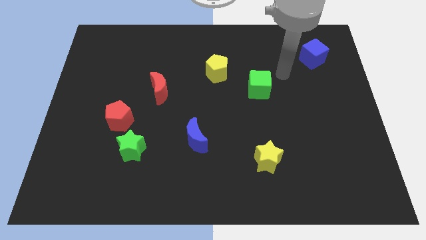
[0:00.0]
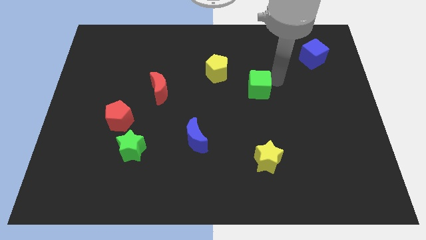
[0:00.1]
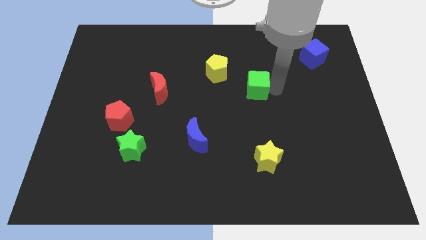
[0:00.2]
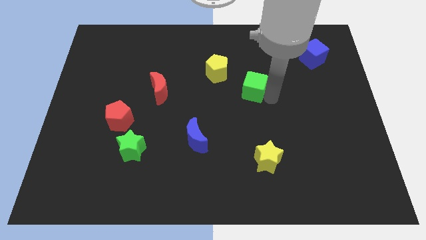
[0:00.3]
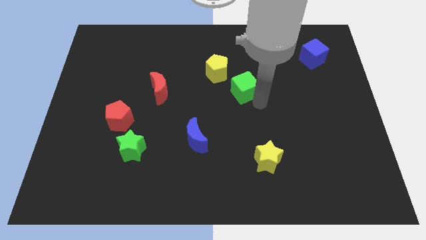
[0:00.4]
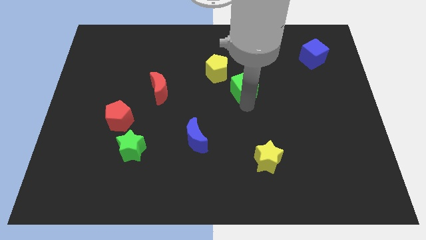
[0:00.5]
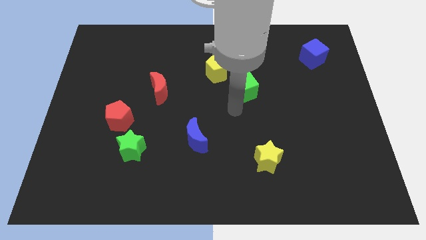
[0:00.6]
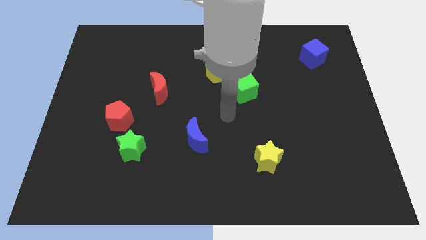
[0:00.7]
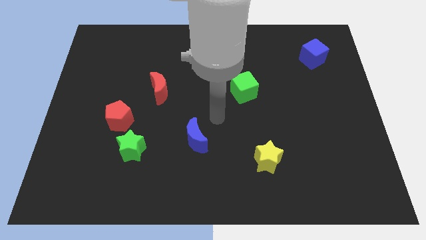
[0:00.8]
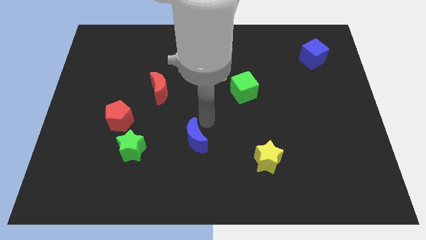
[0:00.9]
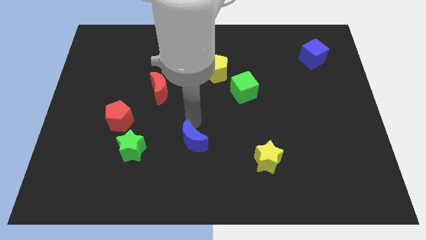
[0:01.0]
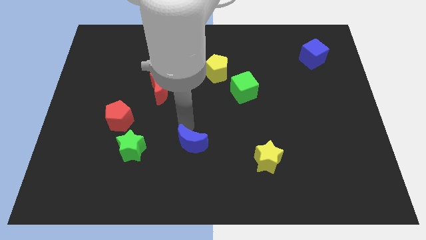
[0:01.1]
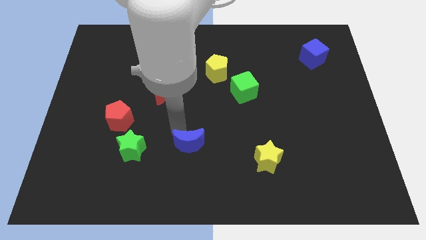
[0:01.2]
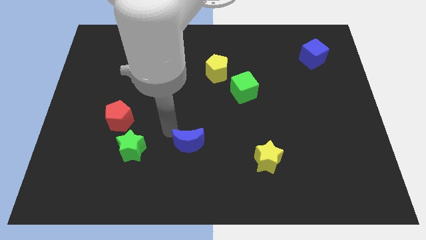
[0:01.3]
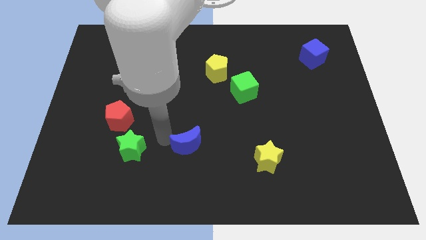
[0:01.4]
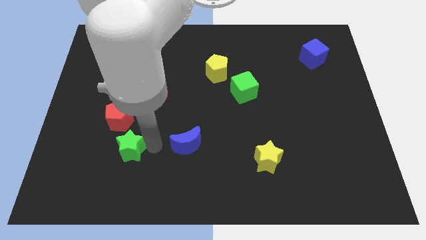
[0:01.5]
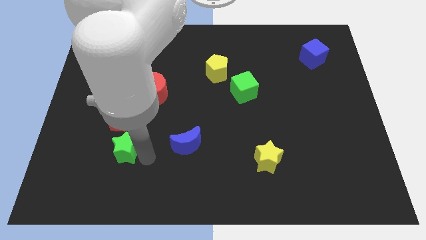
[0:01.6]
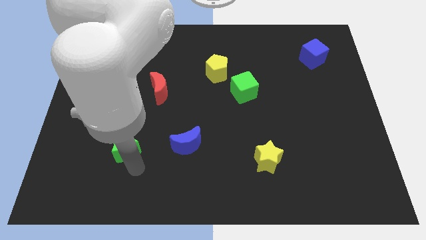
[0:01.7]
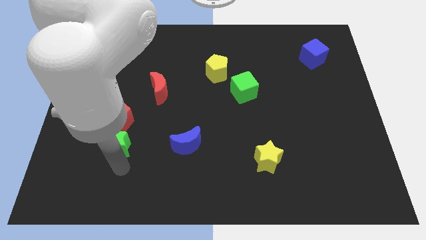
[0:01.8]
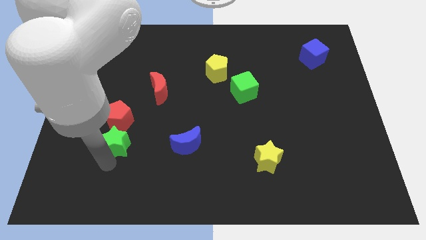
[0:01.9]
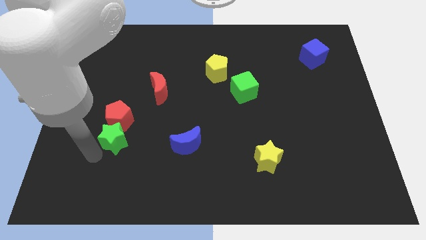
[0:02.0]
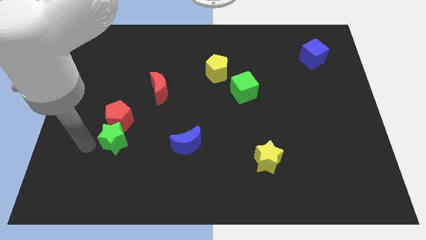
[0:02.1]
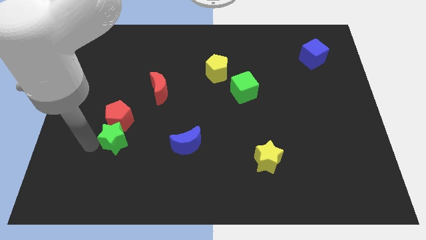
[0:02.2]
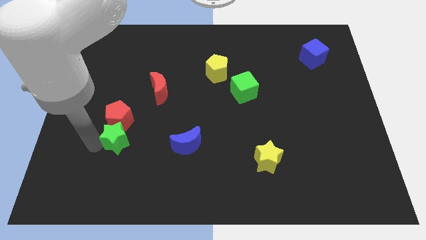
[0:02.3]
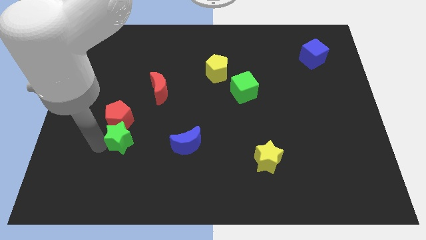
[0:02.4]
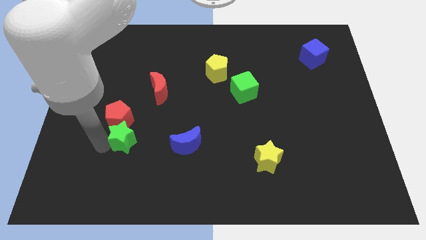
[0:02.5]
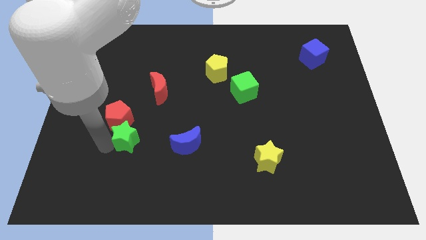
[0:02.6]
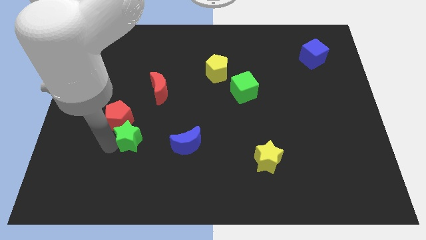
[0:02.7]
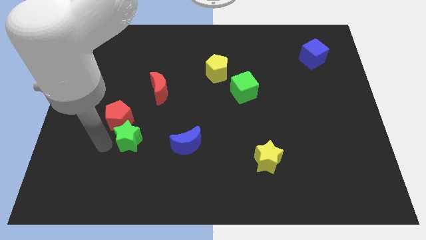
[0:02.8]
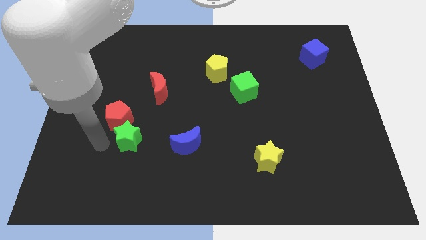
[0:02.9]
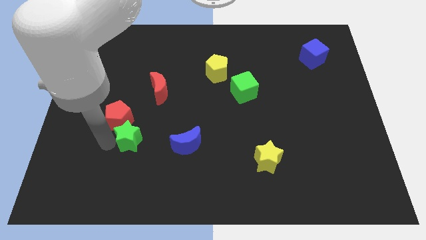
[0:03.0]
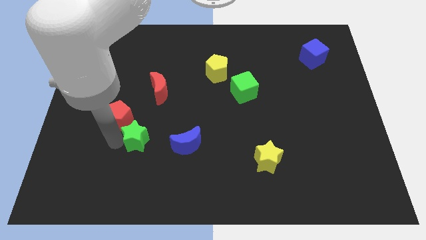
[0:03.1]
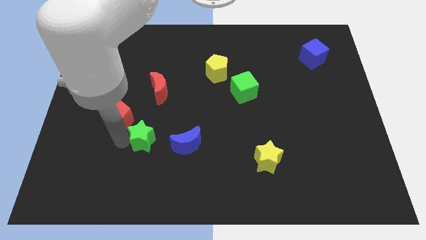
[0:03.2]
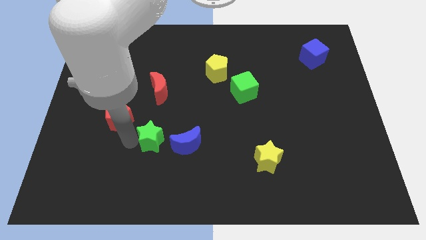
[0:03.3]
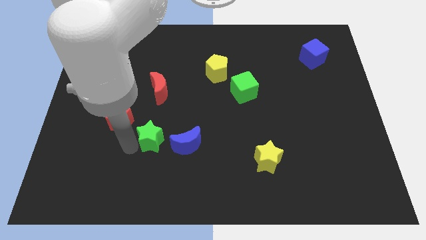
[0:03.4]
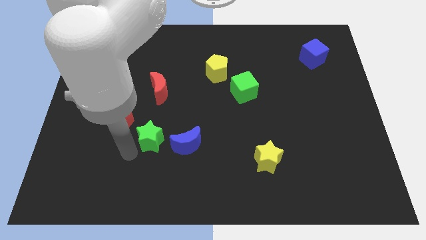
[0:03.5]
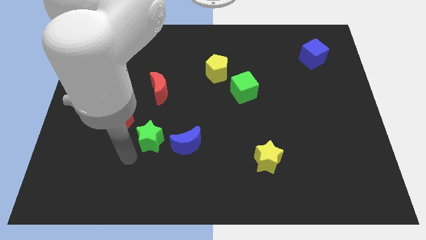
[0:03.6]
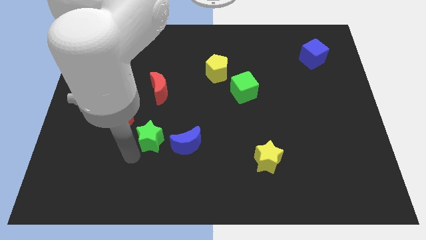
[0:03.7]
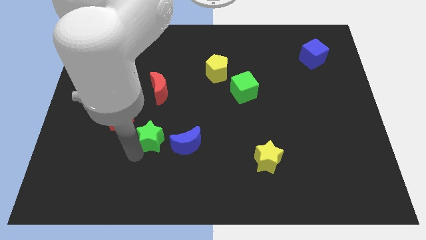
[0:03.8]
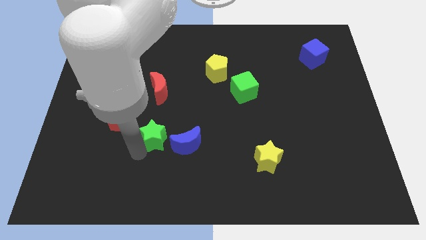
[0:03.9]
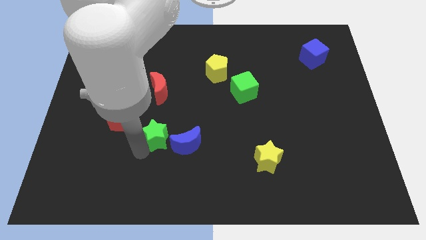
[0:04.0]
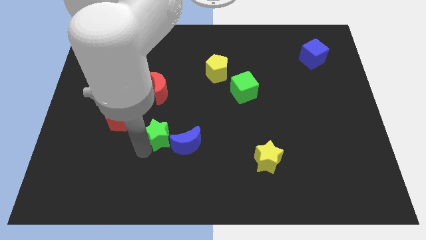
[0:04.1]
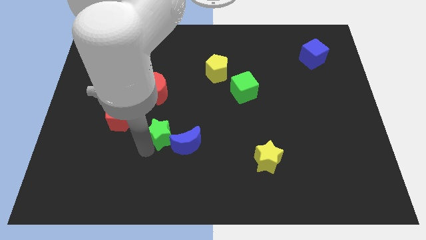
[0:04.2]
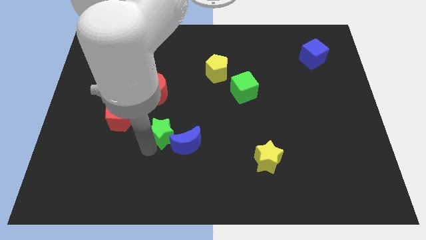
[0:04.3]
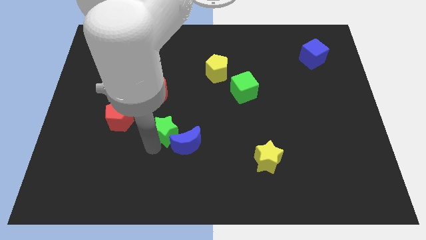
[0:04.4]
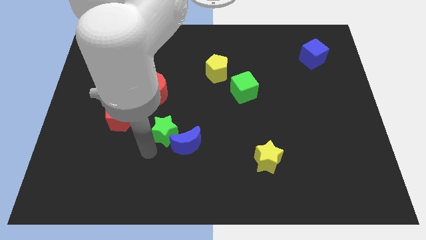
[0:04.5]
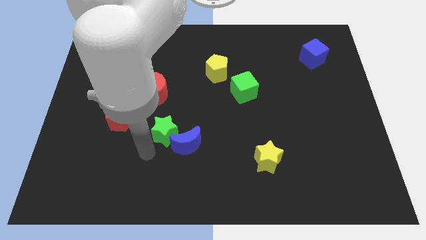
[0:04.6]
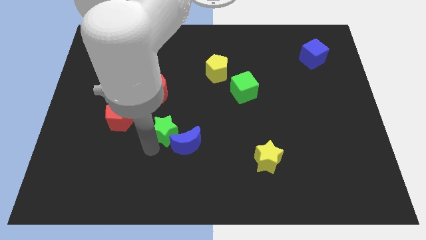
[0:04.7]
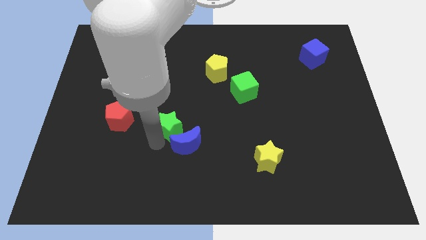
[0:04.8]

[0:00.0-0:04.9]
put the green star to the middle of the board

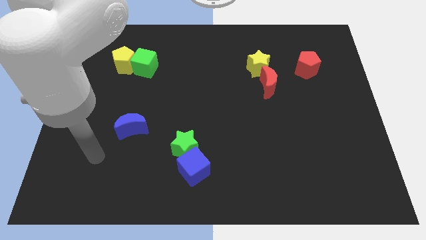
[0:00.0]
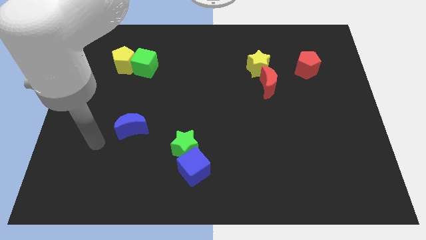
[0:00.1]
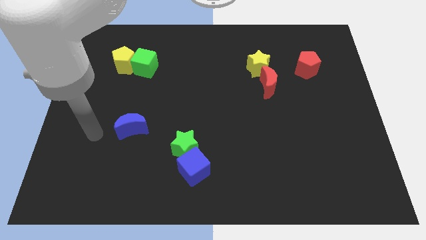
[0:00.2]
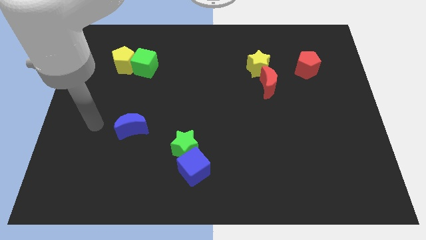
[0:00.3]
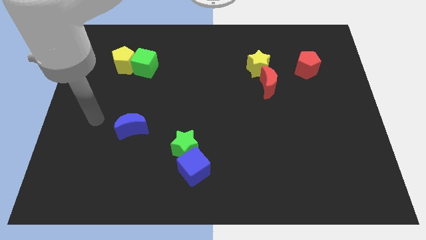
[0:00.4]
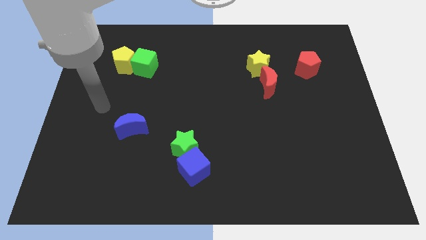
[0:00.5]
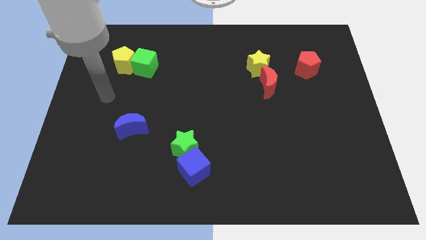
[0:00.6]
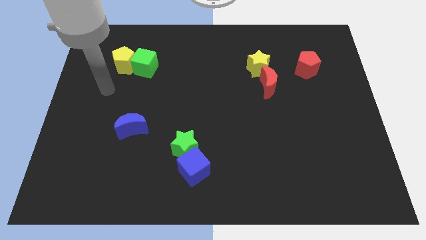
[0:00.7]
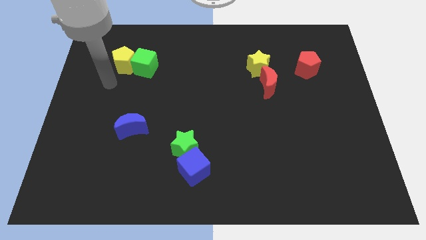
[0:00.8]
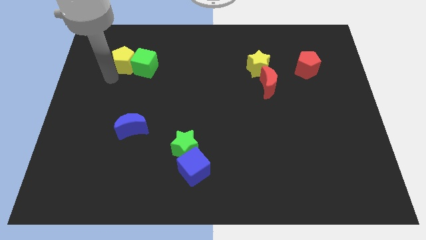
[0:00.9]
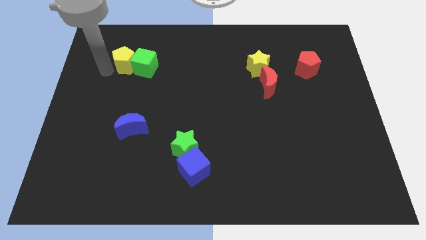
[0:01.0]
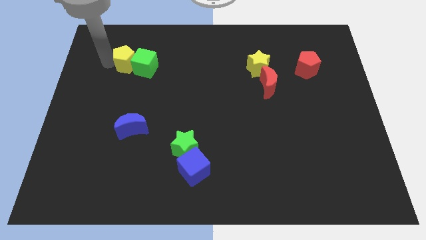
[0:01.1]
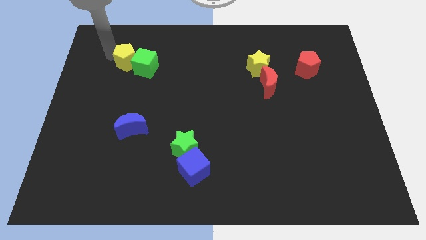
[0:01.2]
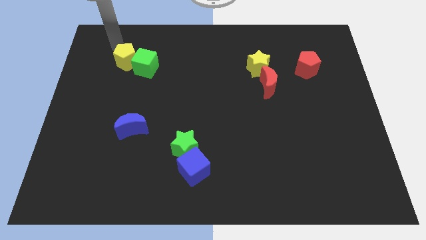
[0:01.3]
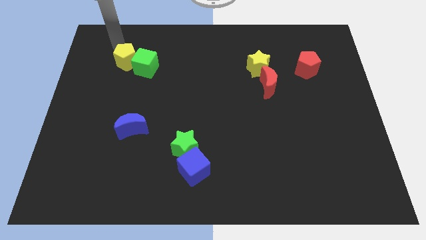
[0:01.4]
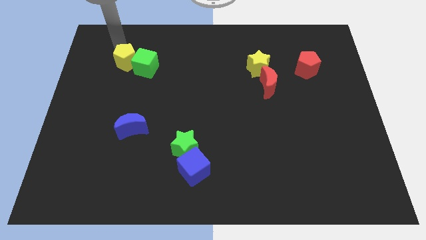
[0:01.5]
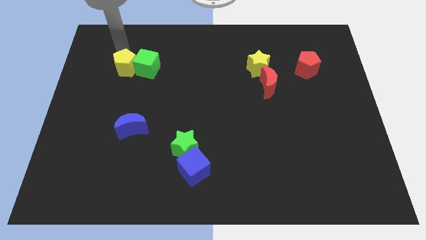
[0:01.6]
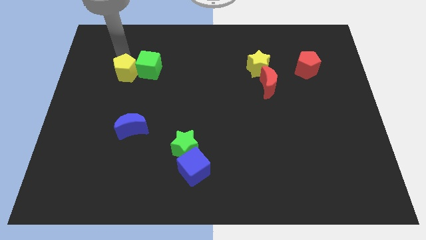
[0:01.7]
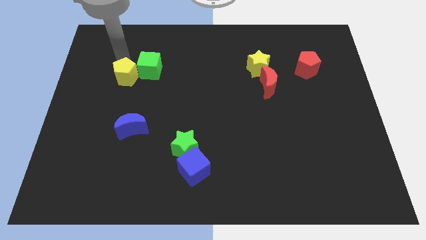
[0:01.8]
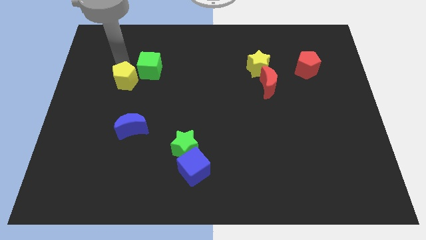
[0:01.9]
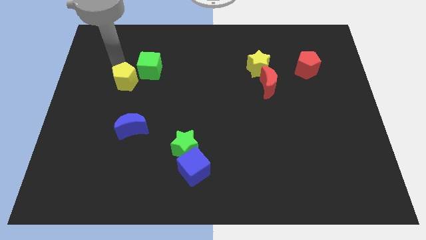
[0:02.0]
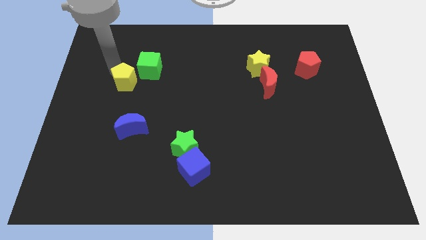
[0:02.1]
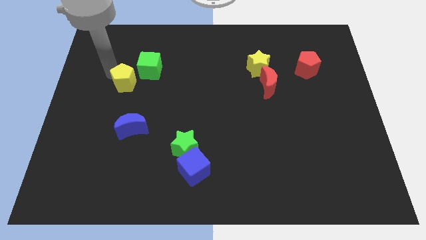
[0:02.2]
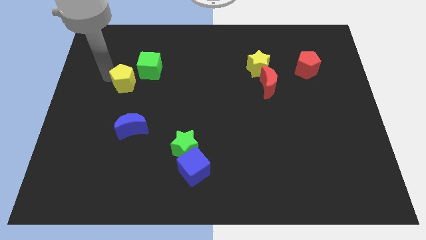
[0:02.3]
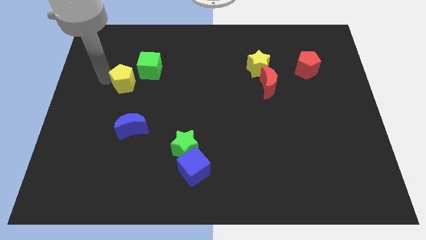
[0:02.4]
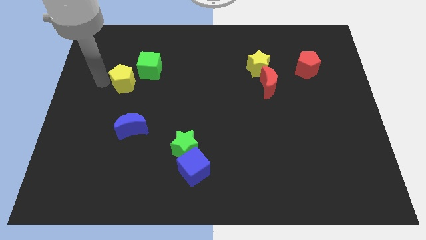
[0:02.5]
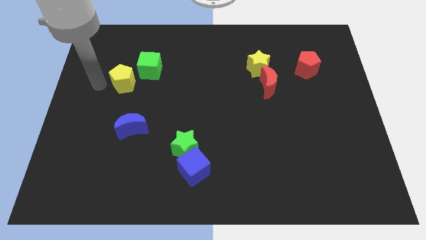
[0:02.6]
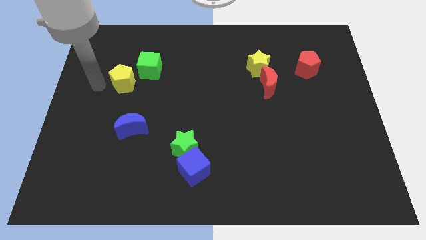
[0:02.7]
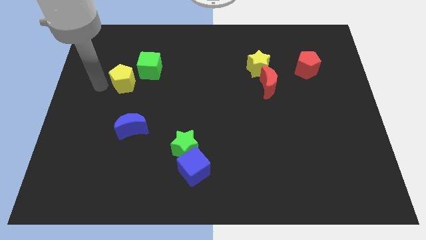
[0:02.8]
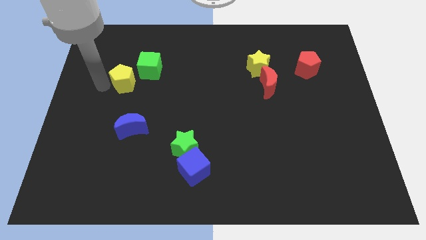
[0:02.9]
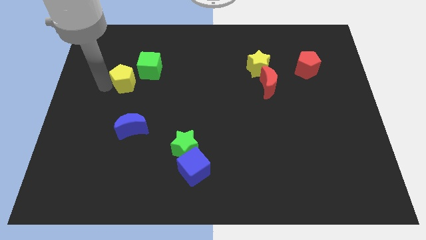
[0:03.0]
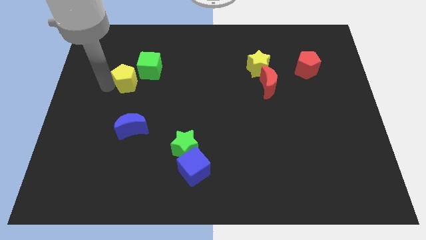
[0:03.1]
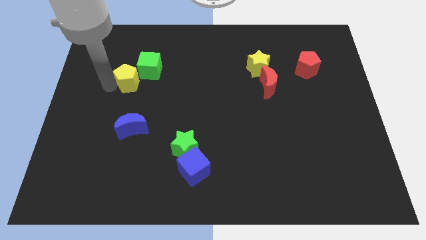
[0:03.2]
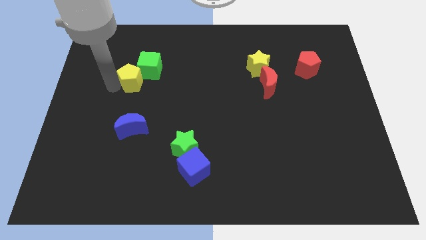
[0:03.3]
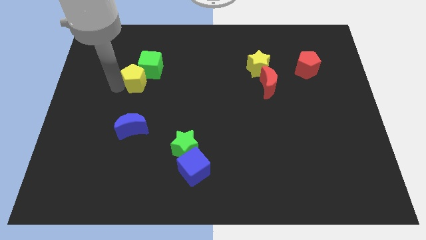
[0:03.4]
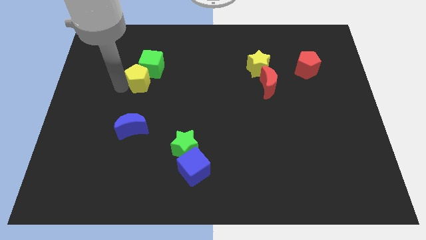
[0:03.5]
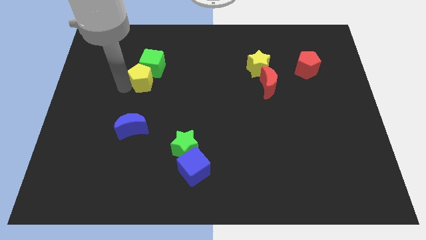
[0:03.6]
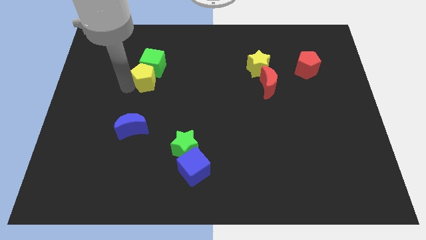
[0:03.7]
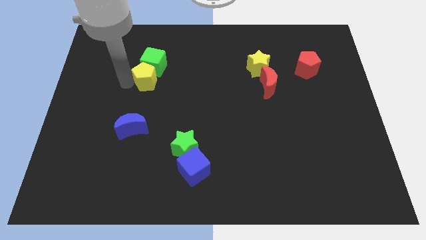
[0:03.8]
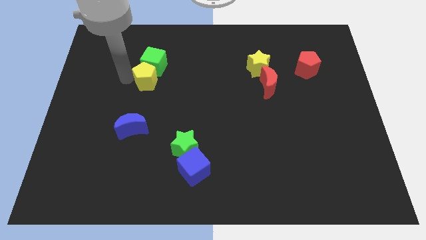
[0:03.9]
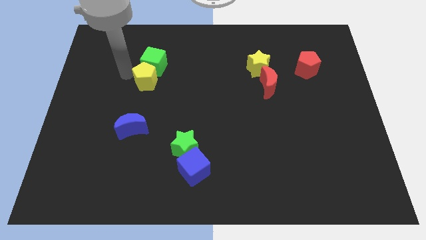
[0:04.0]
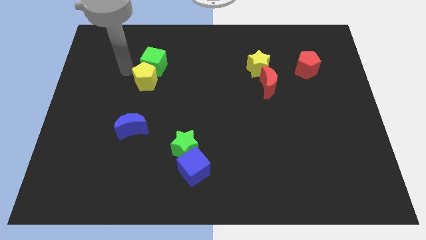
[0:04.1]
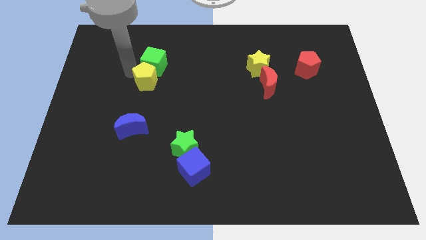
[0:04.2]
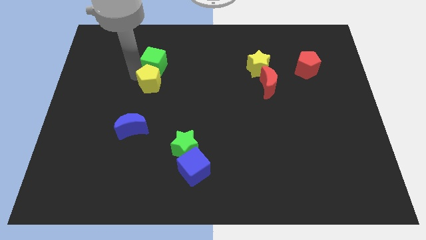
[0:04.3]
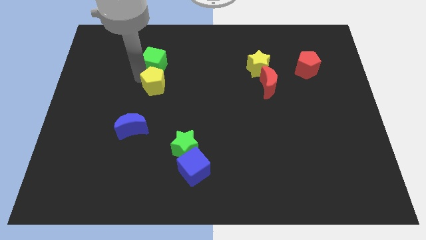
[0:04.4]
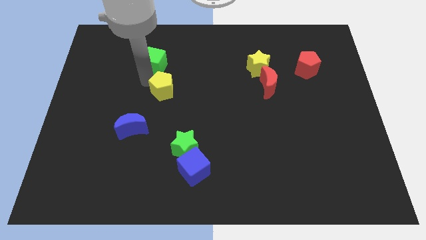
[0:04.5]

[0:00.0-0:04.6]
push the yellow pentagon to the center of the board
